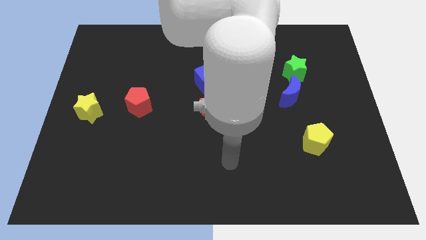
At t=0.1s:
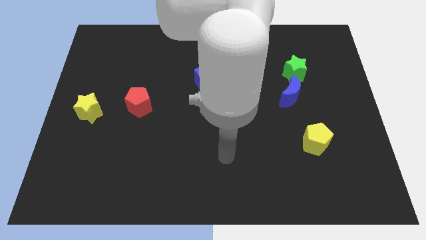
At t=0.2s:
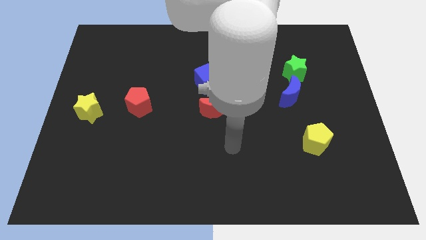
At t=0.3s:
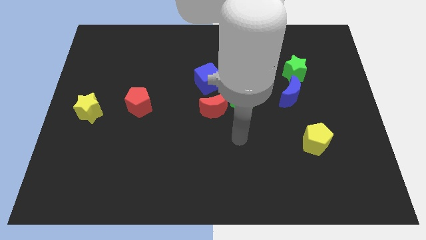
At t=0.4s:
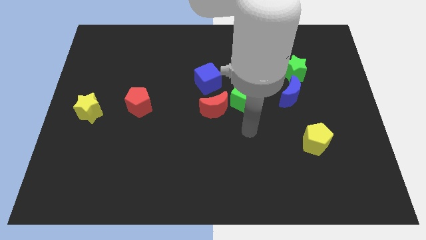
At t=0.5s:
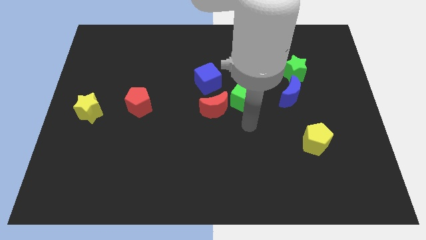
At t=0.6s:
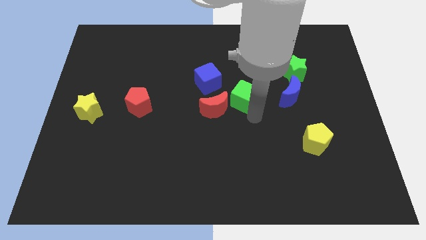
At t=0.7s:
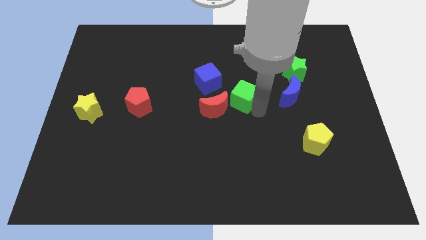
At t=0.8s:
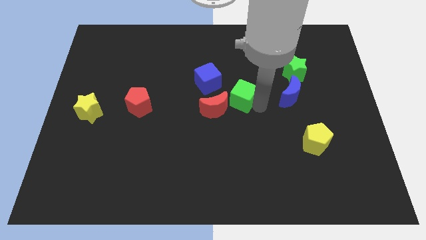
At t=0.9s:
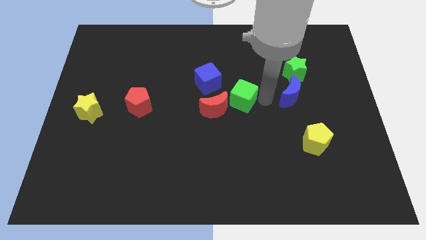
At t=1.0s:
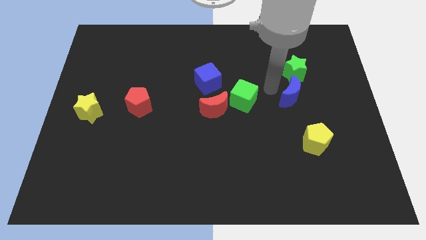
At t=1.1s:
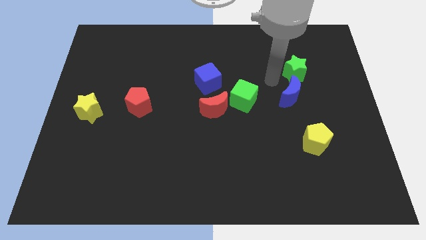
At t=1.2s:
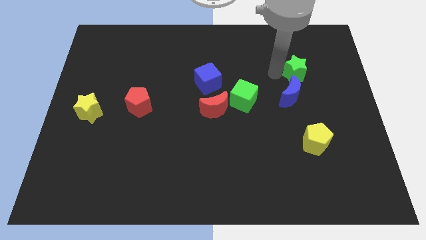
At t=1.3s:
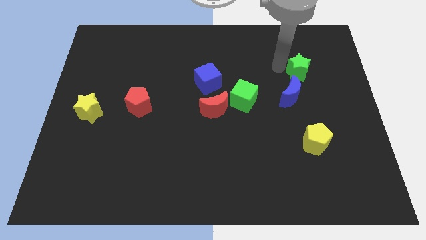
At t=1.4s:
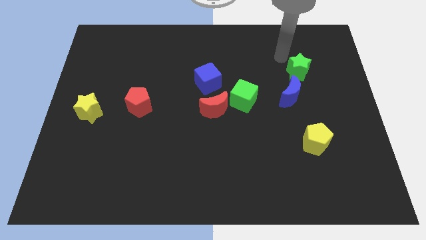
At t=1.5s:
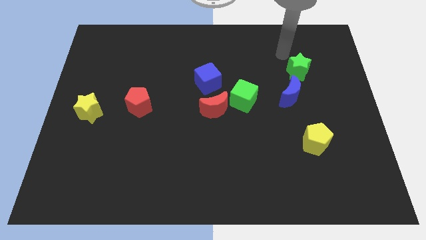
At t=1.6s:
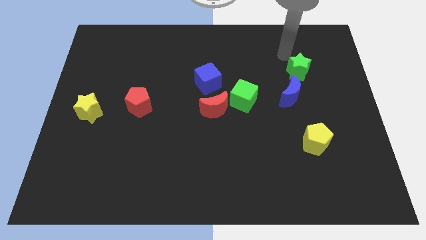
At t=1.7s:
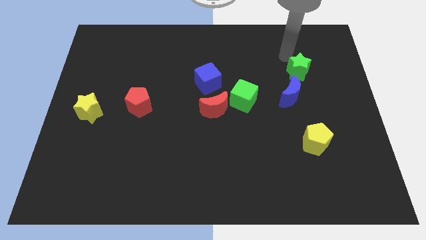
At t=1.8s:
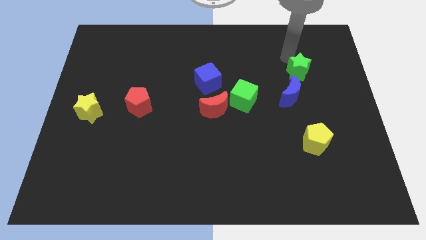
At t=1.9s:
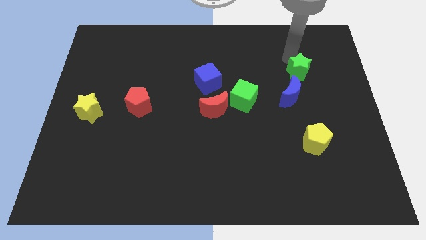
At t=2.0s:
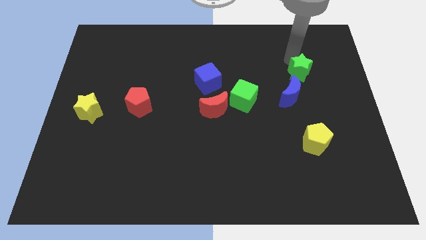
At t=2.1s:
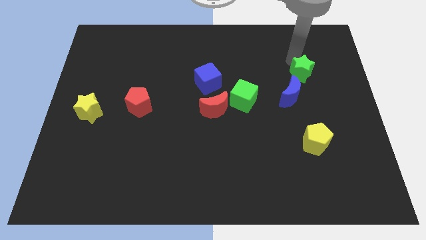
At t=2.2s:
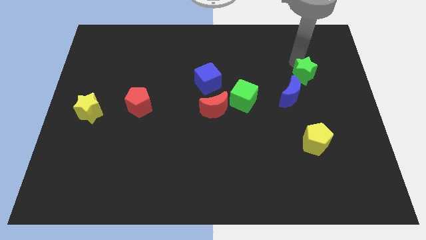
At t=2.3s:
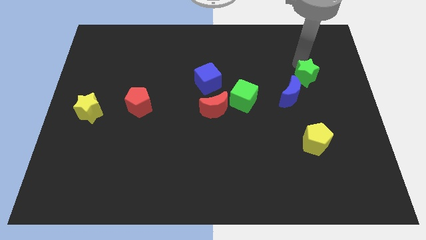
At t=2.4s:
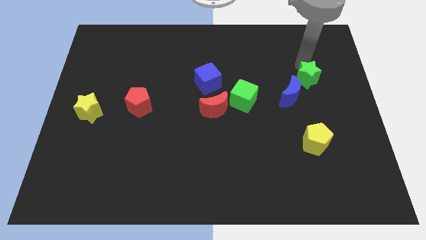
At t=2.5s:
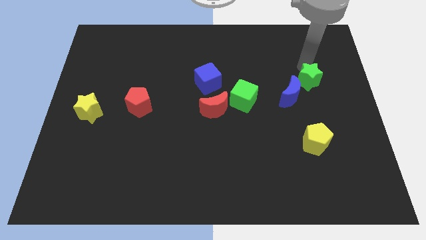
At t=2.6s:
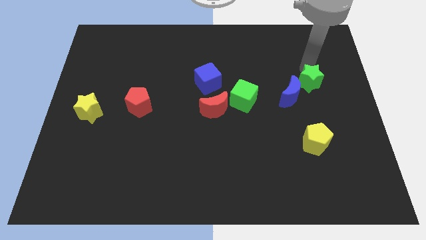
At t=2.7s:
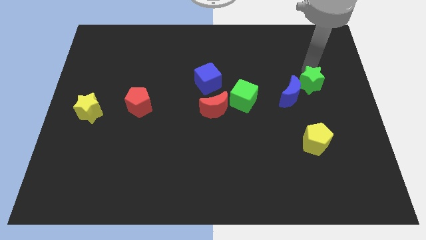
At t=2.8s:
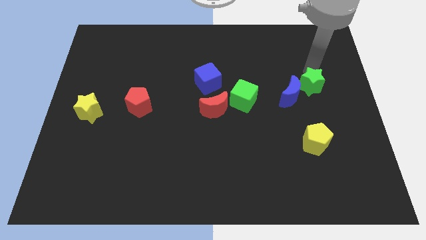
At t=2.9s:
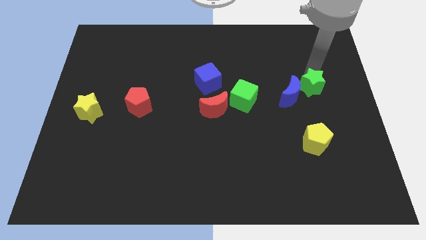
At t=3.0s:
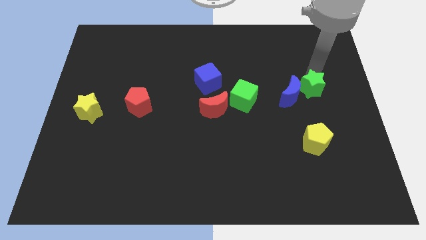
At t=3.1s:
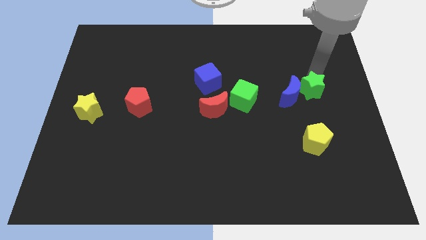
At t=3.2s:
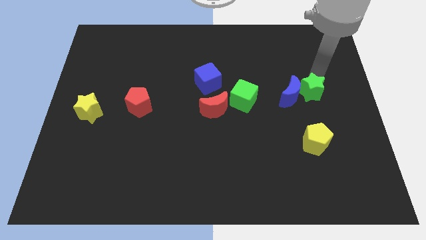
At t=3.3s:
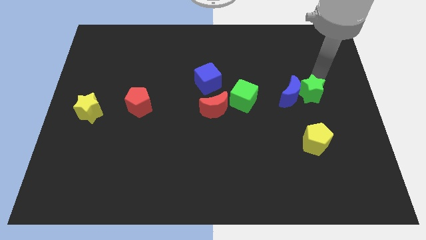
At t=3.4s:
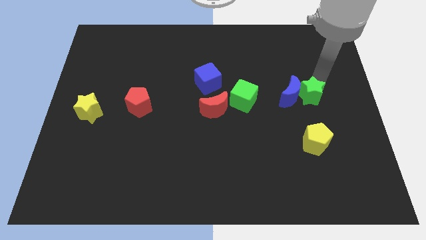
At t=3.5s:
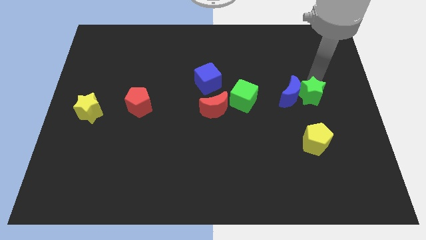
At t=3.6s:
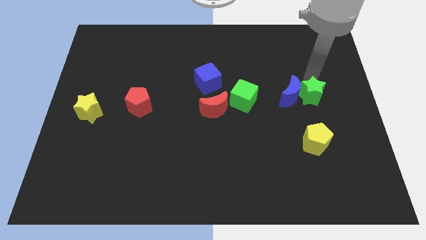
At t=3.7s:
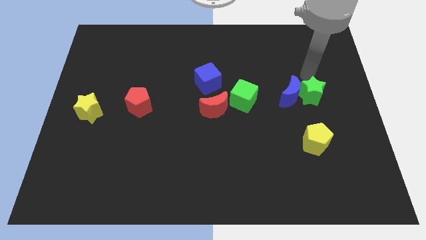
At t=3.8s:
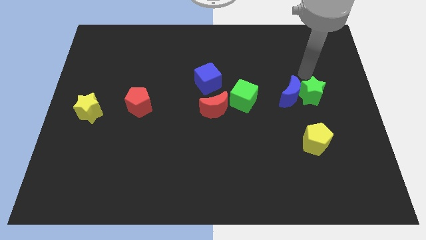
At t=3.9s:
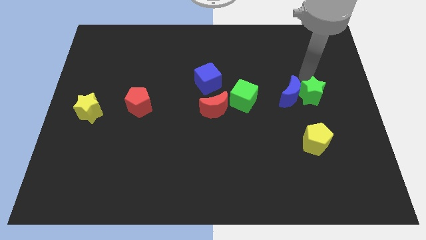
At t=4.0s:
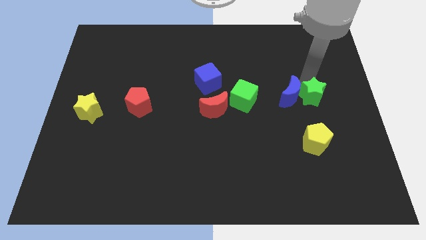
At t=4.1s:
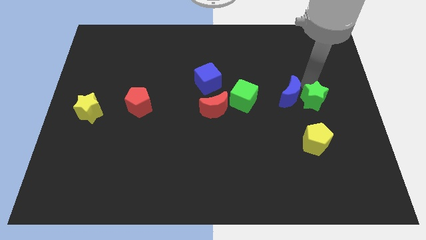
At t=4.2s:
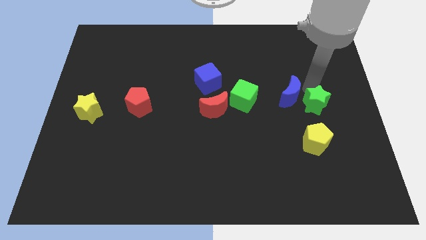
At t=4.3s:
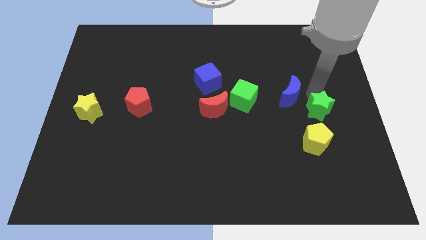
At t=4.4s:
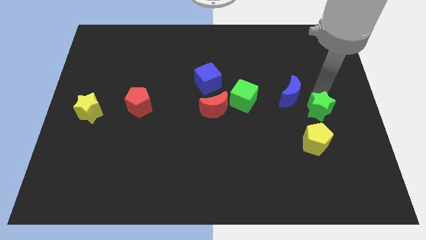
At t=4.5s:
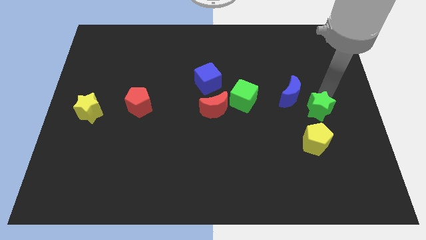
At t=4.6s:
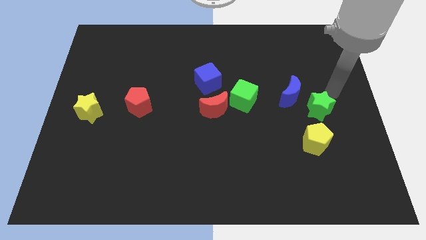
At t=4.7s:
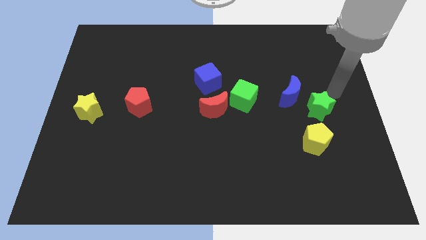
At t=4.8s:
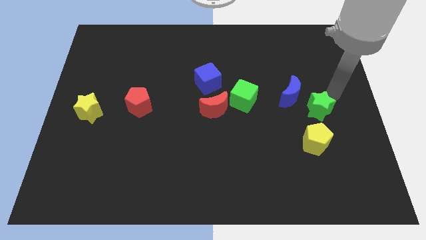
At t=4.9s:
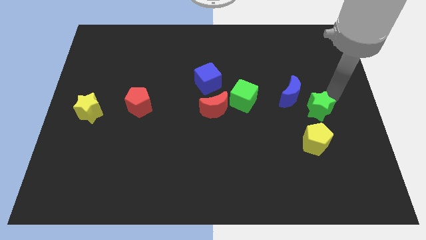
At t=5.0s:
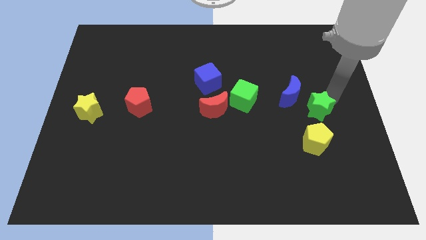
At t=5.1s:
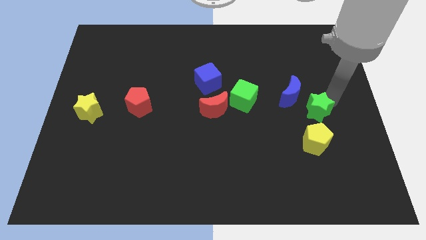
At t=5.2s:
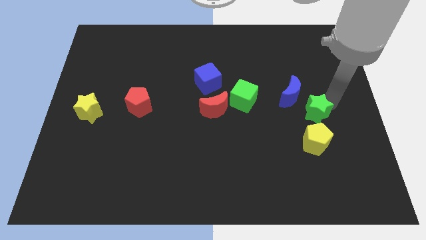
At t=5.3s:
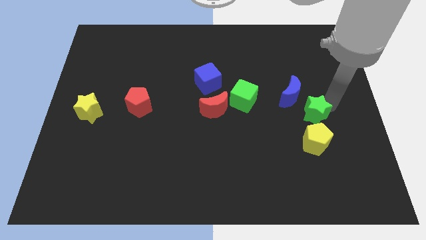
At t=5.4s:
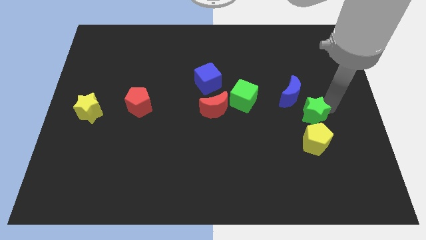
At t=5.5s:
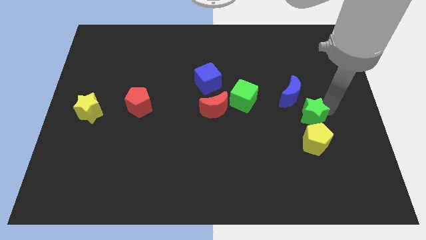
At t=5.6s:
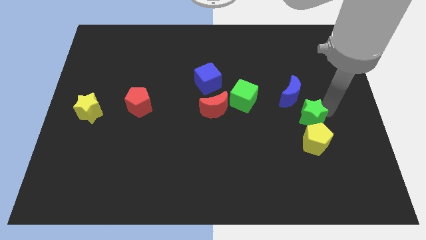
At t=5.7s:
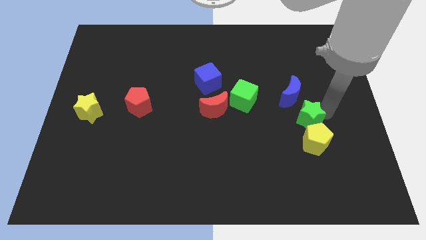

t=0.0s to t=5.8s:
push the green star to the yellow pentagon

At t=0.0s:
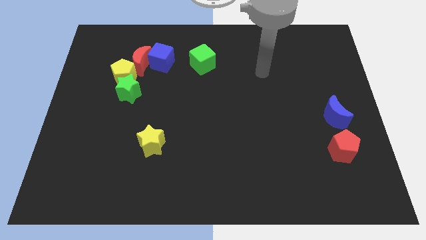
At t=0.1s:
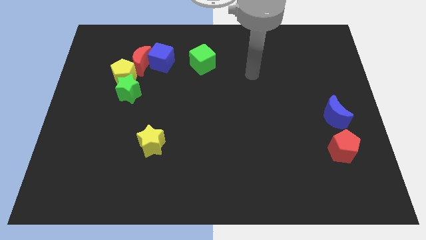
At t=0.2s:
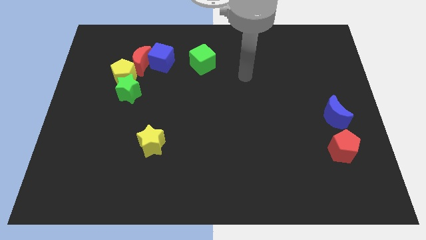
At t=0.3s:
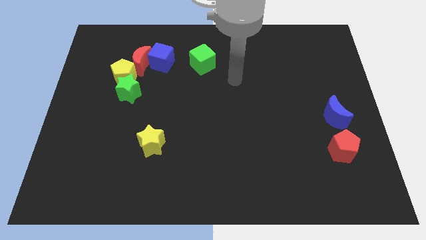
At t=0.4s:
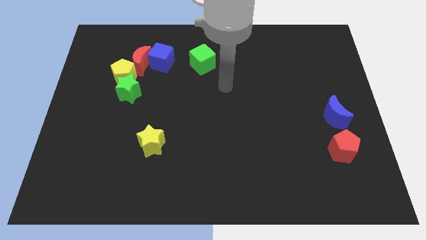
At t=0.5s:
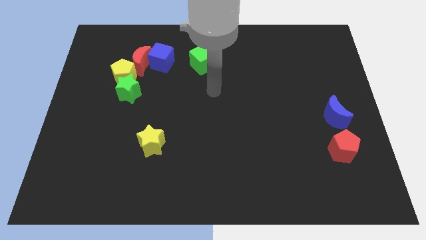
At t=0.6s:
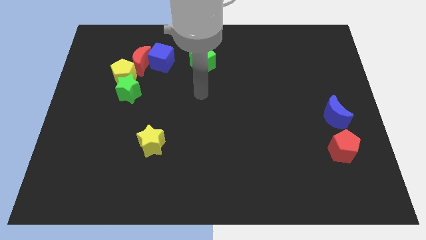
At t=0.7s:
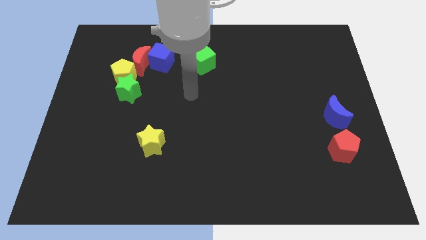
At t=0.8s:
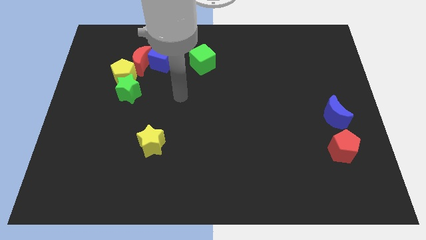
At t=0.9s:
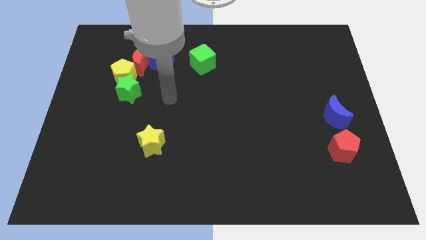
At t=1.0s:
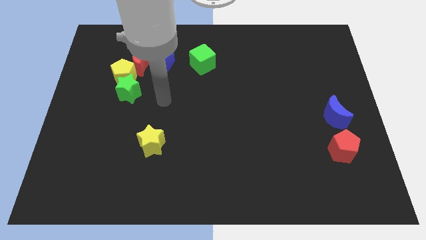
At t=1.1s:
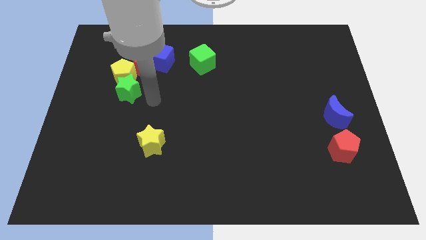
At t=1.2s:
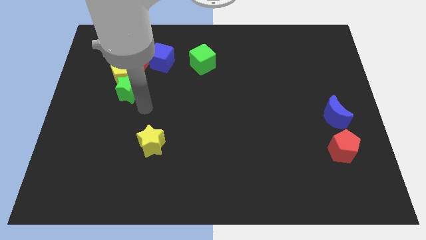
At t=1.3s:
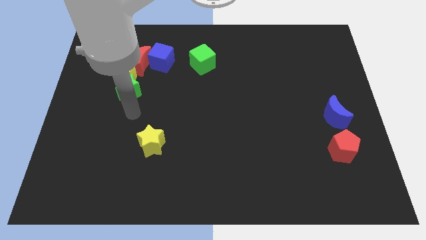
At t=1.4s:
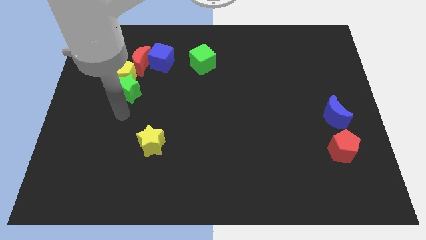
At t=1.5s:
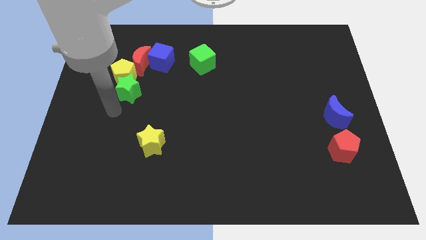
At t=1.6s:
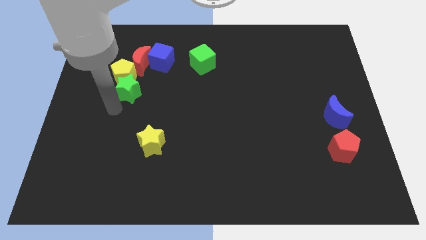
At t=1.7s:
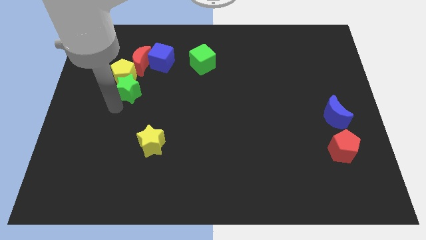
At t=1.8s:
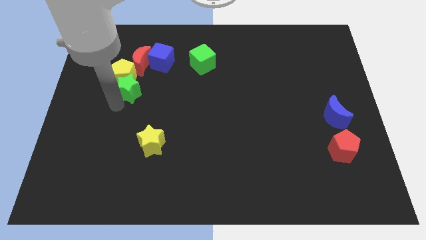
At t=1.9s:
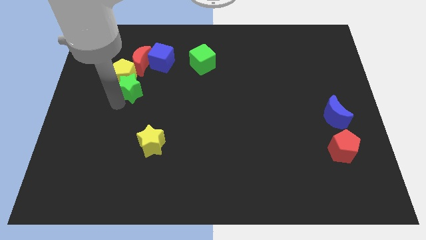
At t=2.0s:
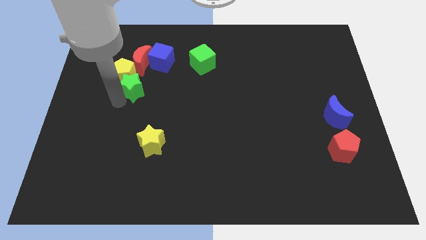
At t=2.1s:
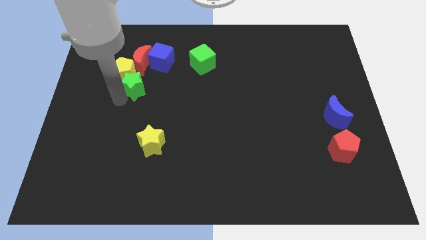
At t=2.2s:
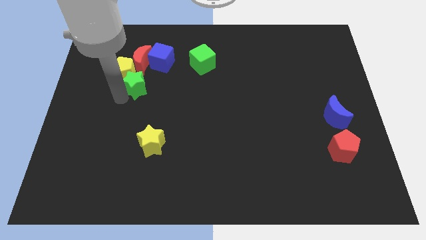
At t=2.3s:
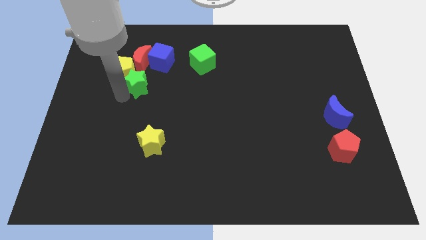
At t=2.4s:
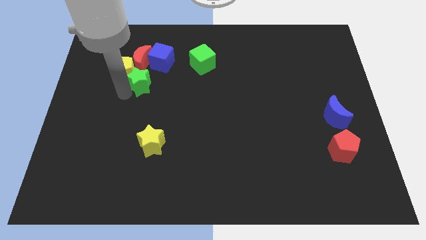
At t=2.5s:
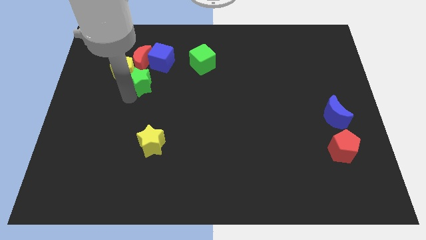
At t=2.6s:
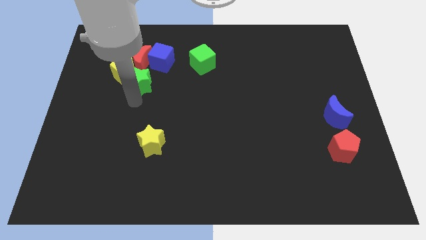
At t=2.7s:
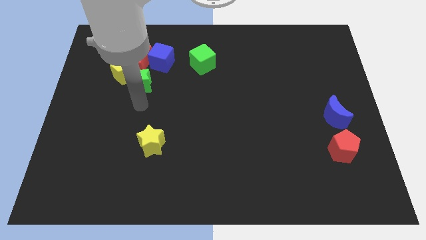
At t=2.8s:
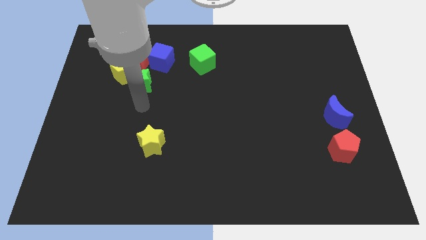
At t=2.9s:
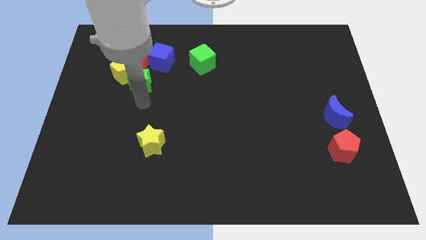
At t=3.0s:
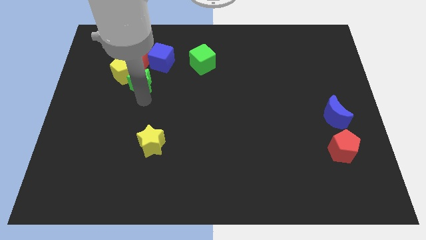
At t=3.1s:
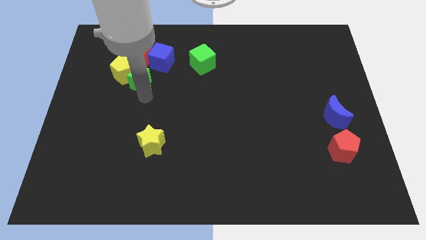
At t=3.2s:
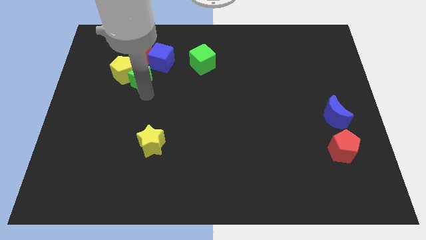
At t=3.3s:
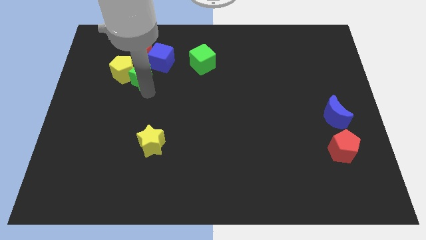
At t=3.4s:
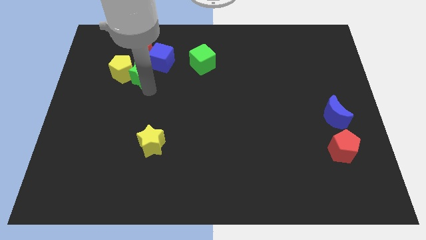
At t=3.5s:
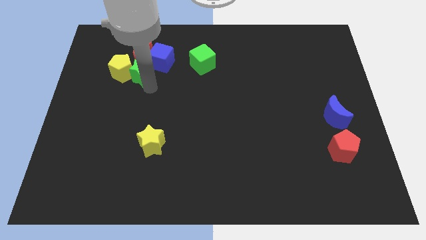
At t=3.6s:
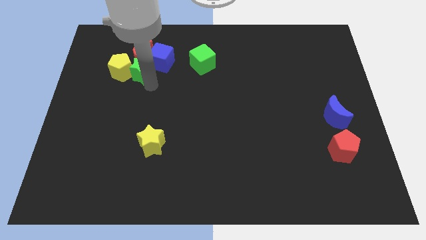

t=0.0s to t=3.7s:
put the green star to the red moon
